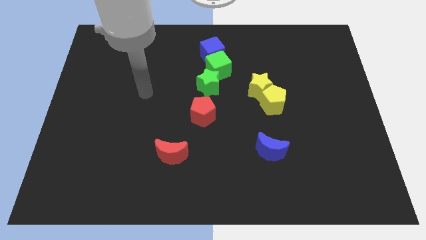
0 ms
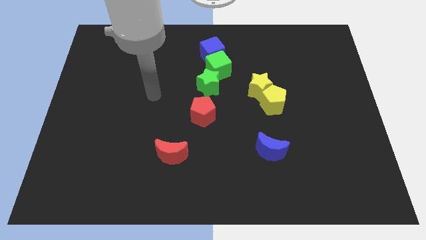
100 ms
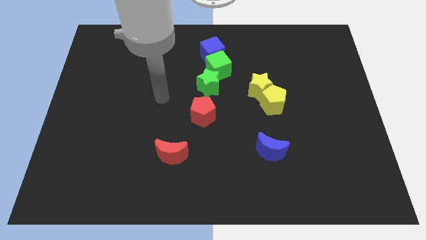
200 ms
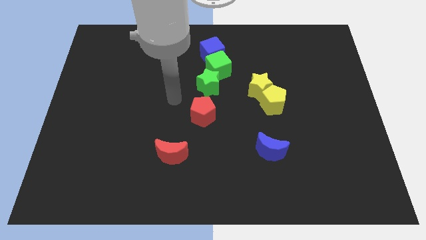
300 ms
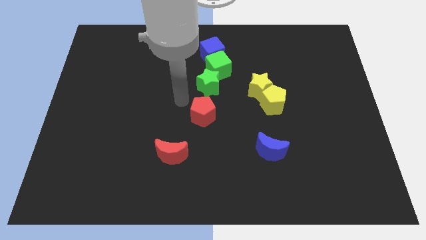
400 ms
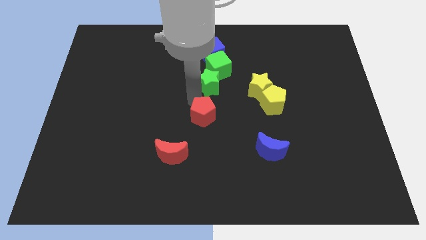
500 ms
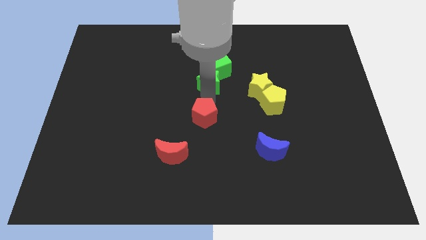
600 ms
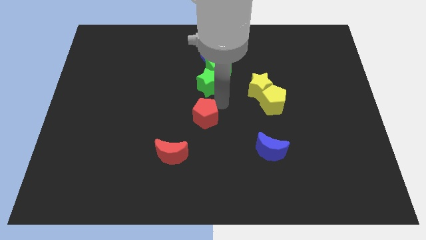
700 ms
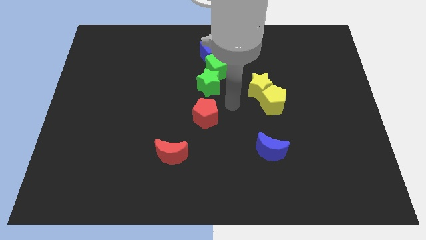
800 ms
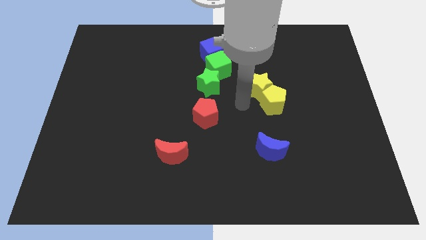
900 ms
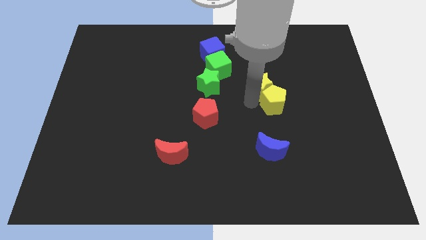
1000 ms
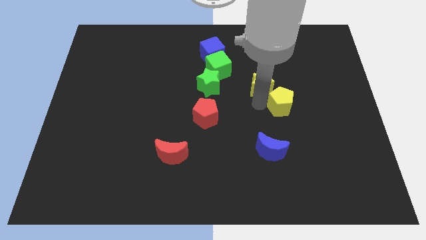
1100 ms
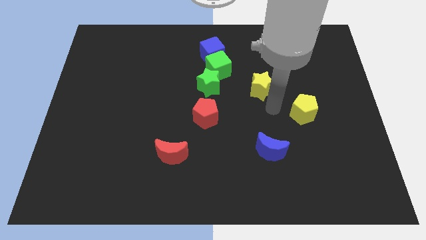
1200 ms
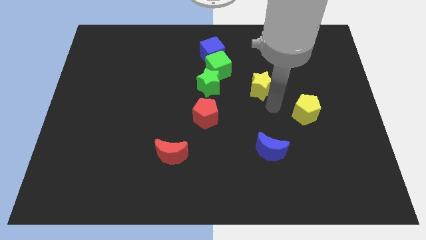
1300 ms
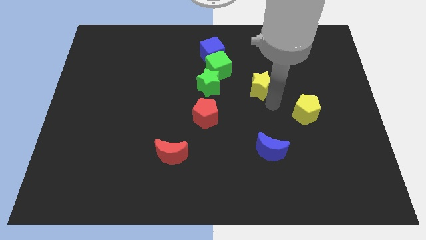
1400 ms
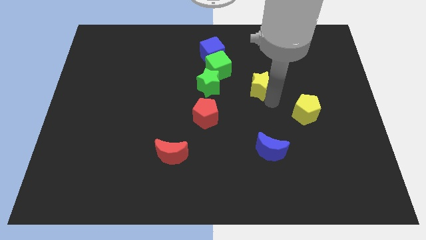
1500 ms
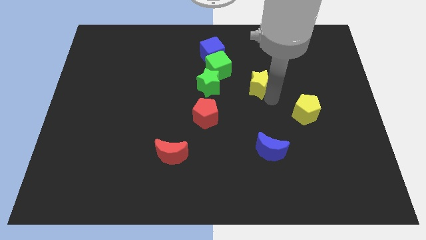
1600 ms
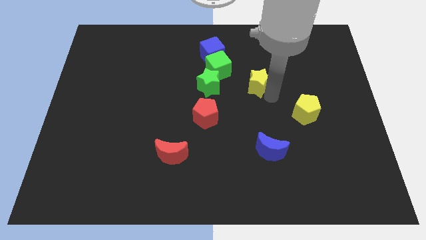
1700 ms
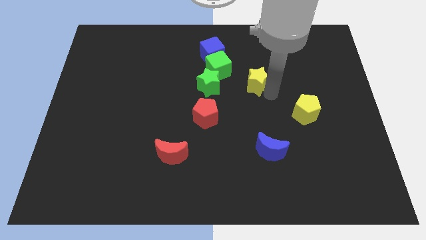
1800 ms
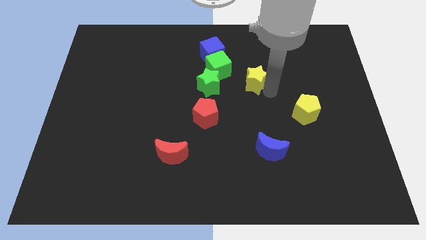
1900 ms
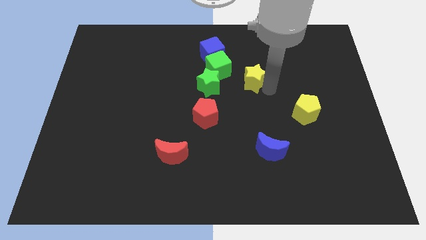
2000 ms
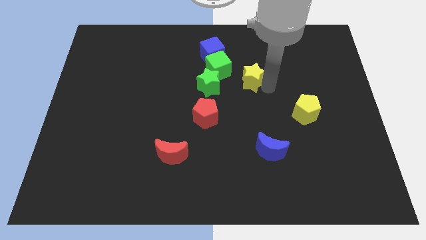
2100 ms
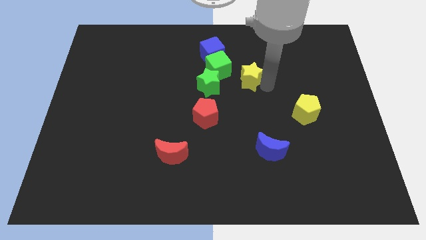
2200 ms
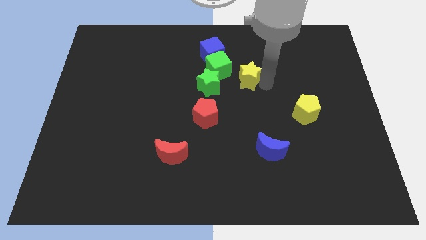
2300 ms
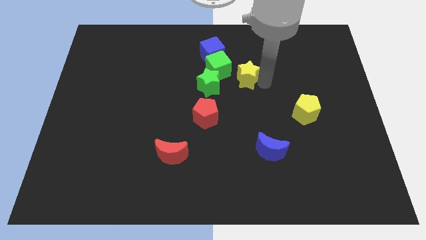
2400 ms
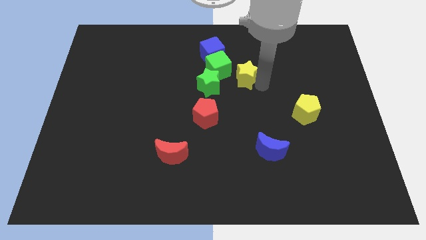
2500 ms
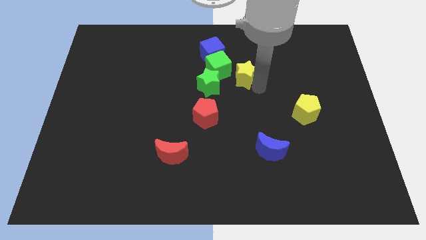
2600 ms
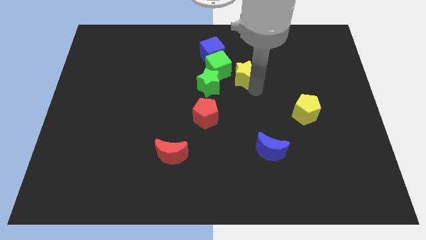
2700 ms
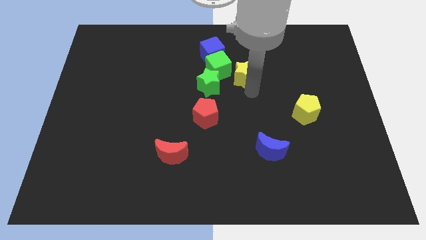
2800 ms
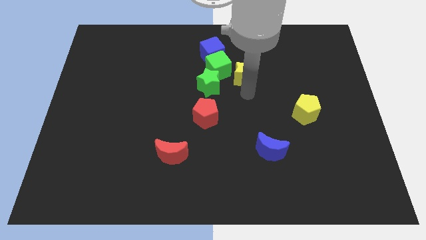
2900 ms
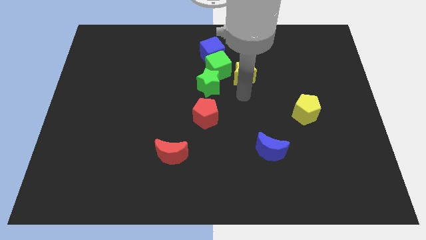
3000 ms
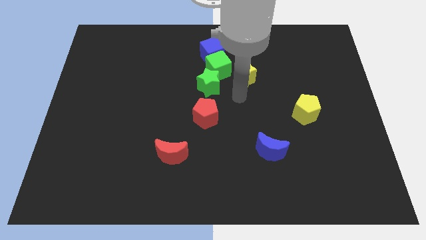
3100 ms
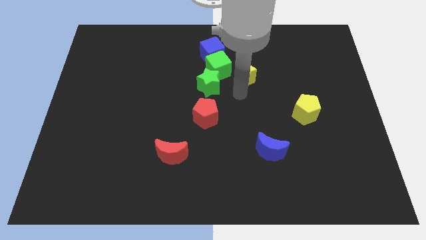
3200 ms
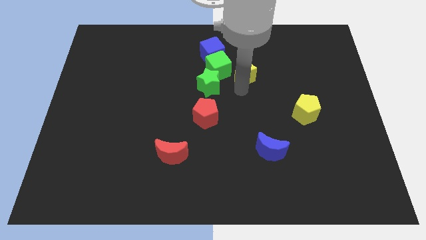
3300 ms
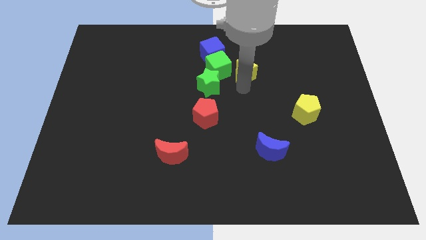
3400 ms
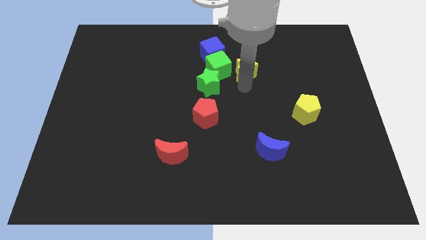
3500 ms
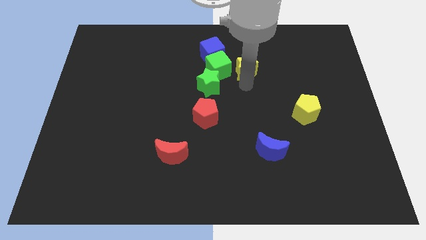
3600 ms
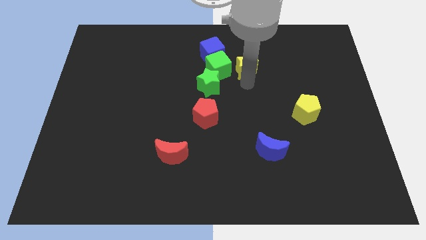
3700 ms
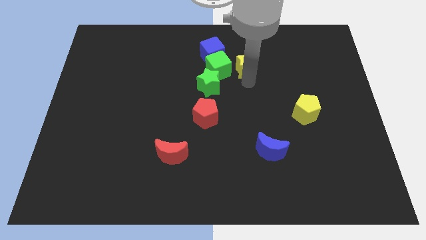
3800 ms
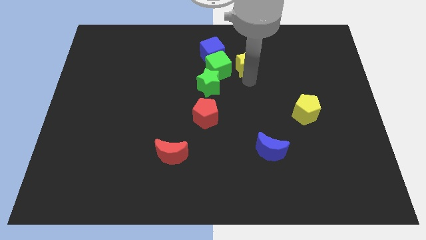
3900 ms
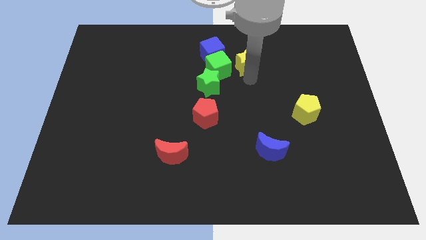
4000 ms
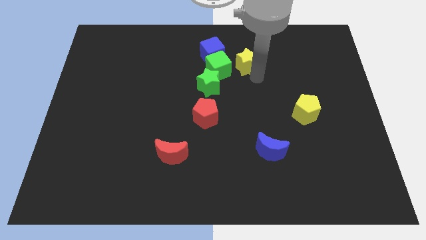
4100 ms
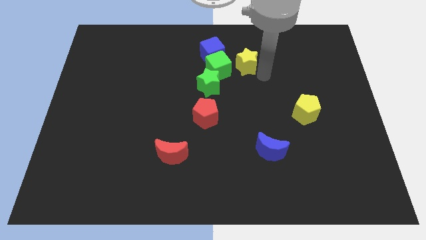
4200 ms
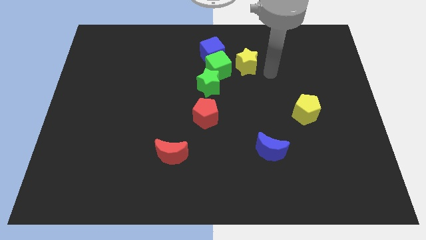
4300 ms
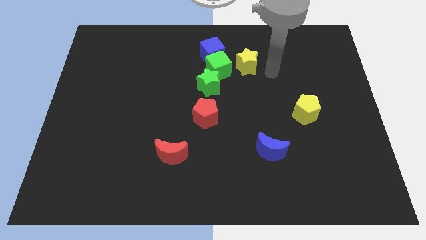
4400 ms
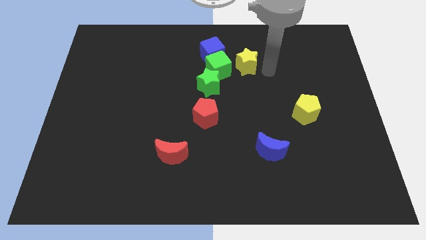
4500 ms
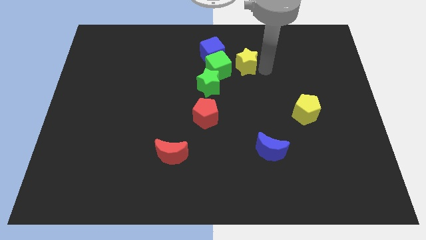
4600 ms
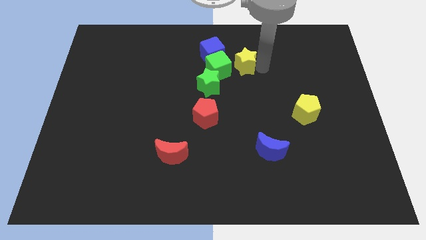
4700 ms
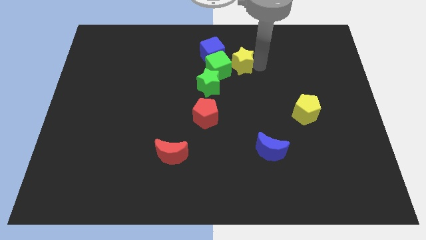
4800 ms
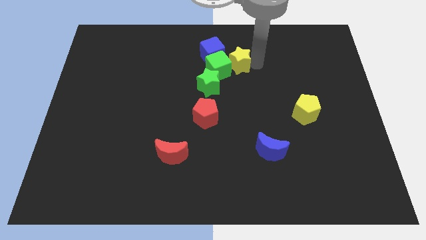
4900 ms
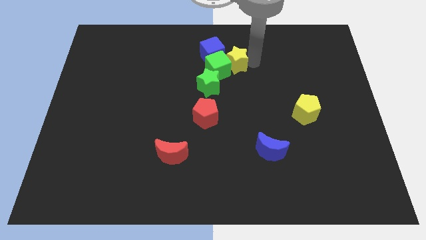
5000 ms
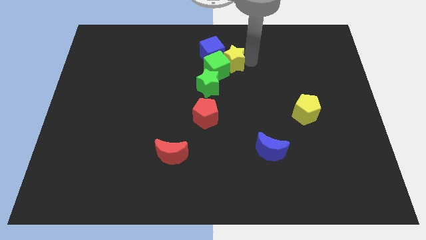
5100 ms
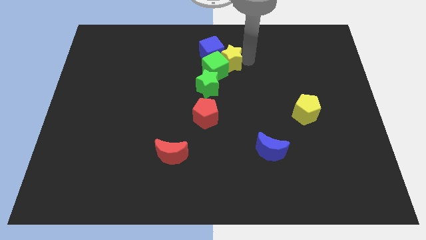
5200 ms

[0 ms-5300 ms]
slide the yellow star to the blue cube

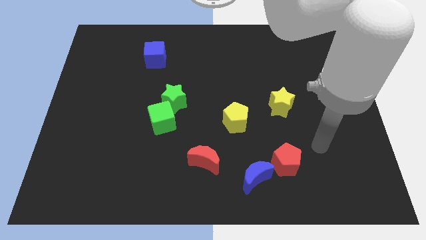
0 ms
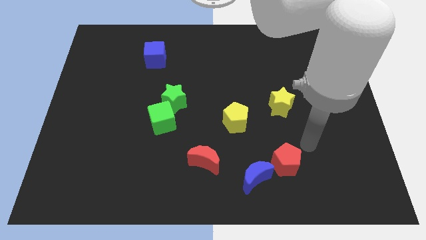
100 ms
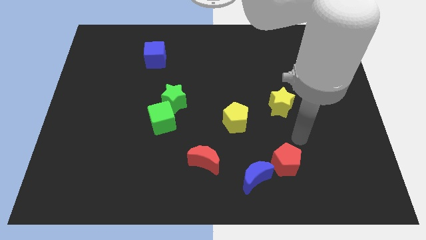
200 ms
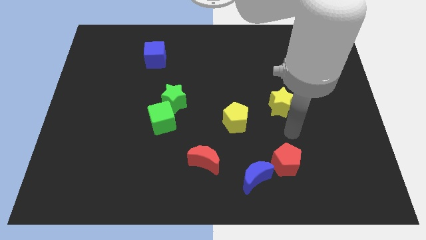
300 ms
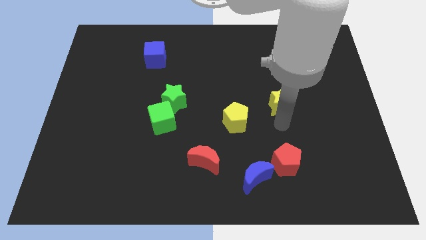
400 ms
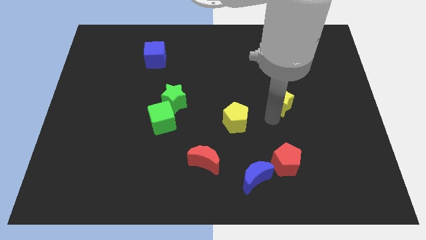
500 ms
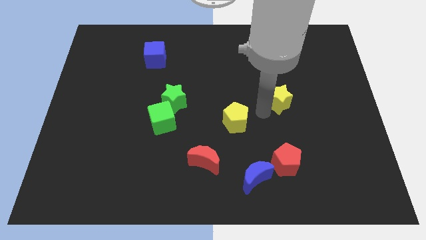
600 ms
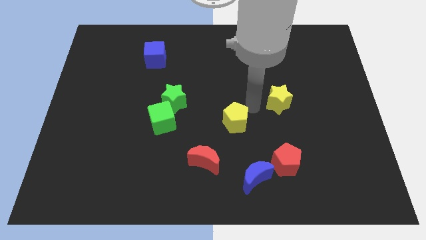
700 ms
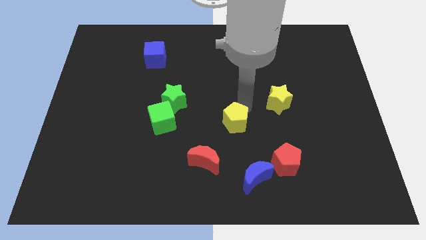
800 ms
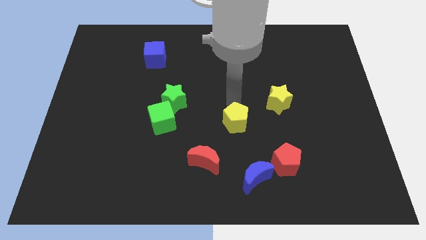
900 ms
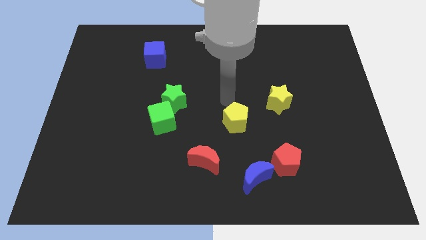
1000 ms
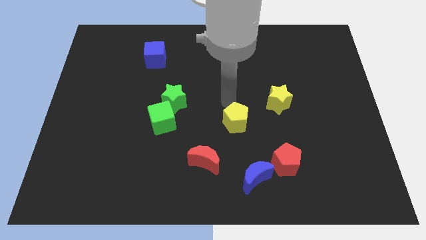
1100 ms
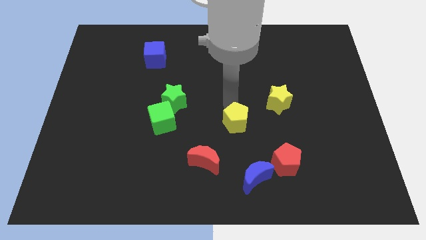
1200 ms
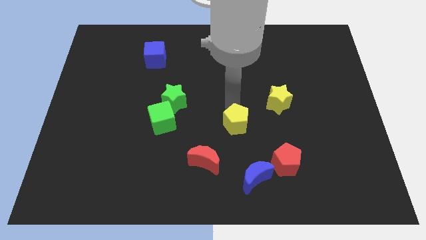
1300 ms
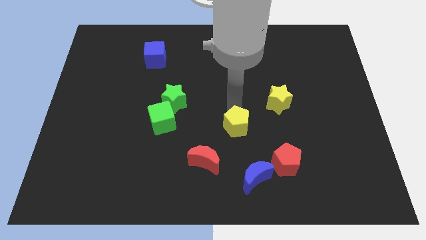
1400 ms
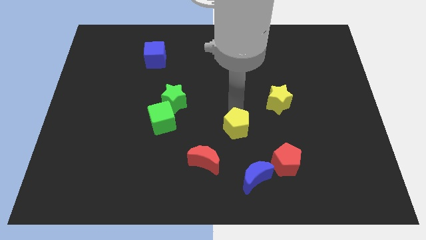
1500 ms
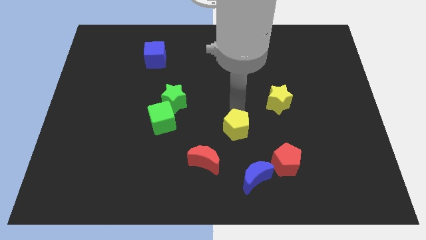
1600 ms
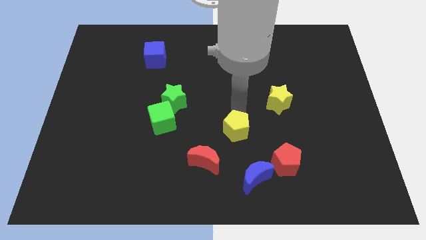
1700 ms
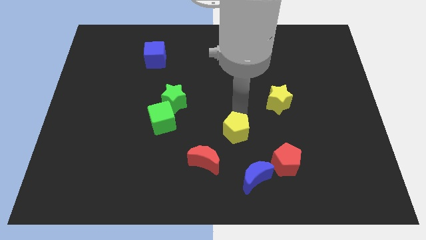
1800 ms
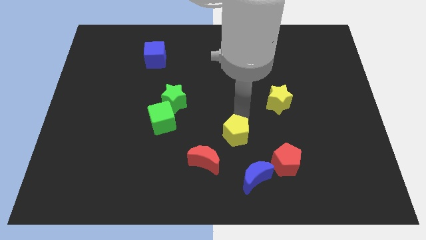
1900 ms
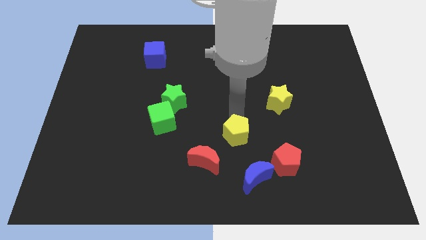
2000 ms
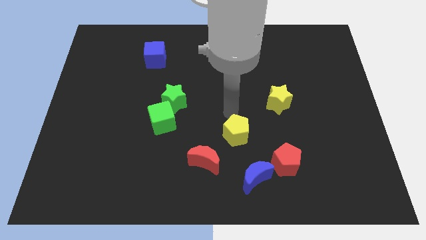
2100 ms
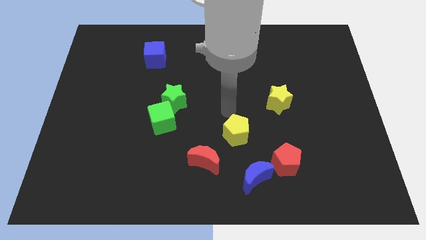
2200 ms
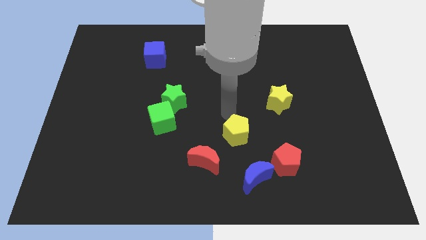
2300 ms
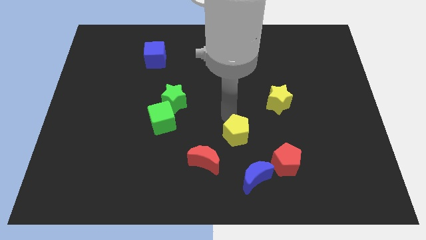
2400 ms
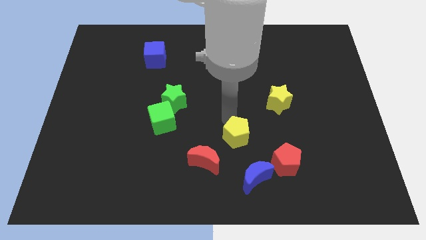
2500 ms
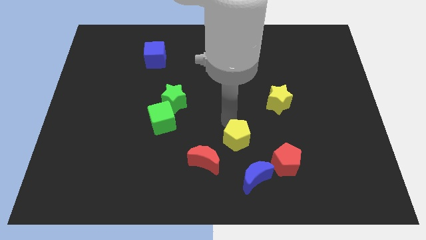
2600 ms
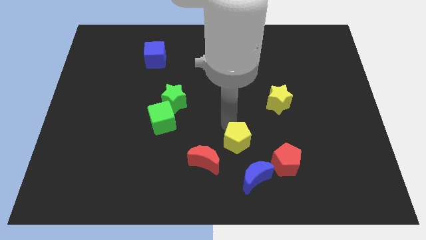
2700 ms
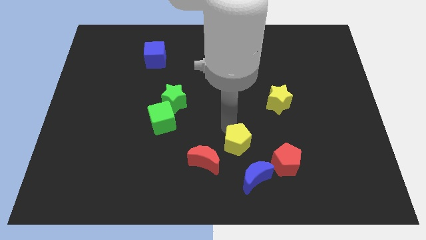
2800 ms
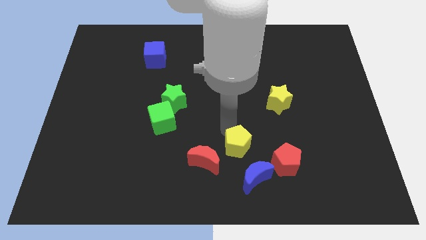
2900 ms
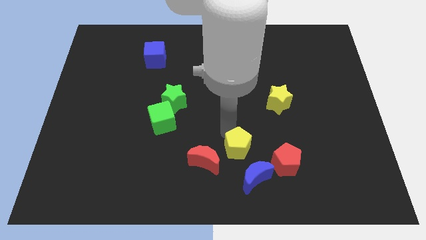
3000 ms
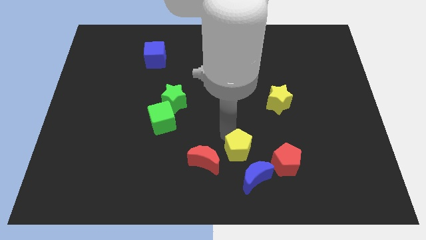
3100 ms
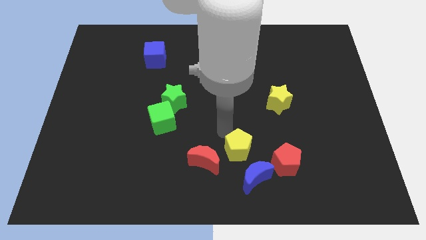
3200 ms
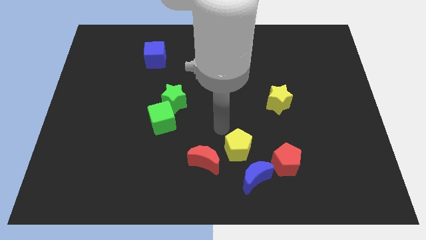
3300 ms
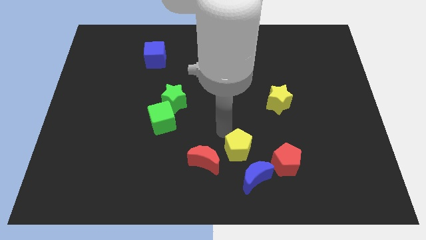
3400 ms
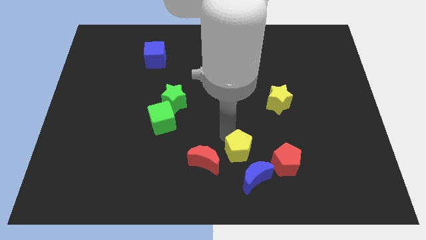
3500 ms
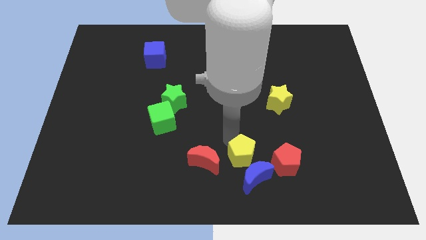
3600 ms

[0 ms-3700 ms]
move the yellow pentagon to the blue moon
